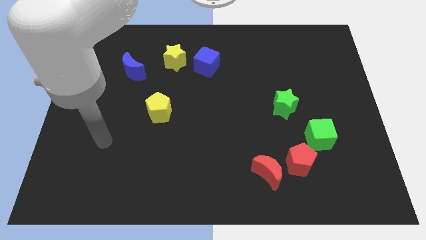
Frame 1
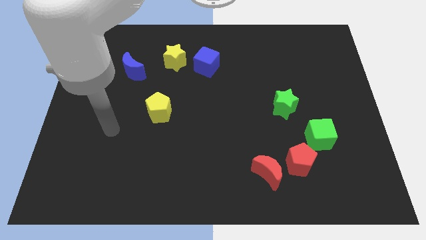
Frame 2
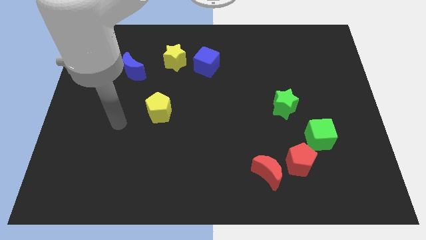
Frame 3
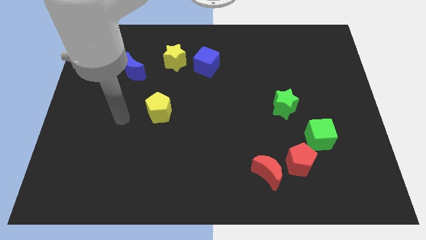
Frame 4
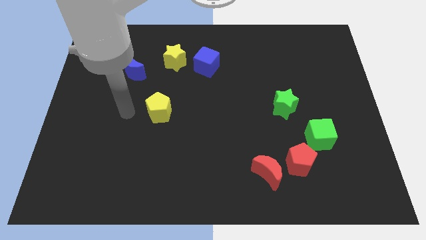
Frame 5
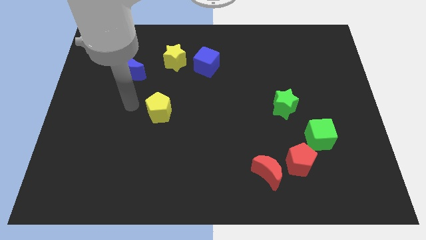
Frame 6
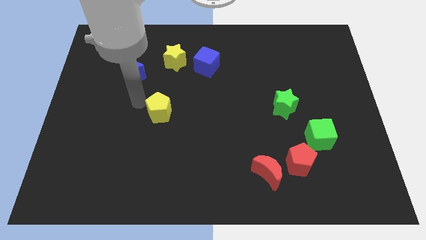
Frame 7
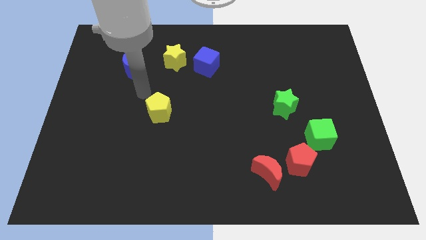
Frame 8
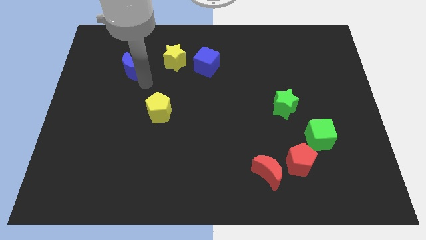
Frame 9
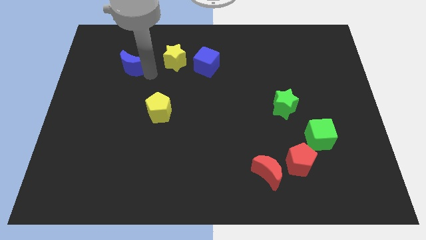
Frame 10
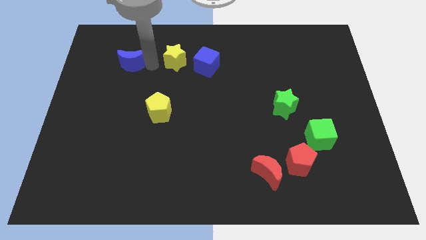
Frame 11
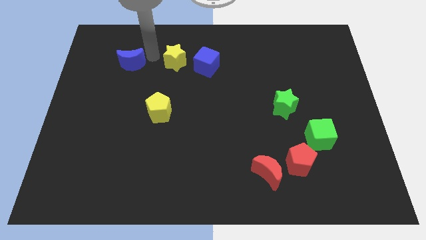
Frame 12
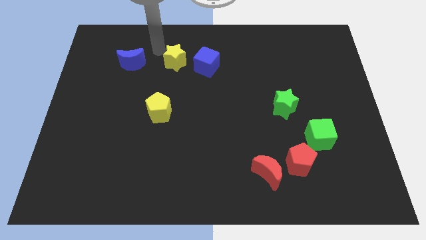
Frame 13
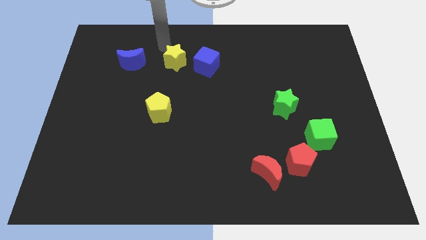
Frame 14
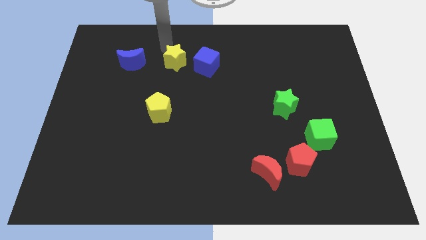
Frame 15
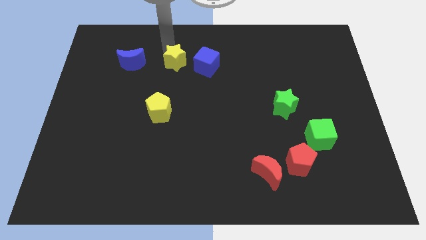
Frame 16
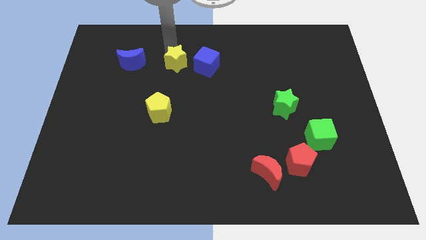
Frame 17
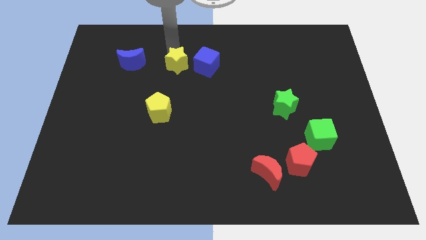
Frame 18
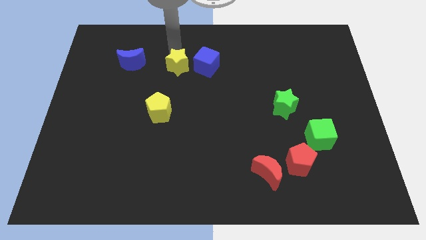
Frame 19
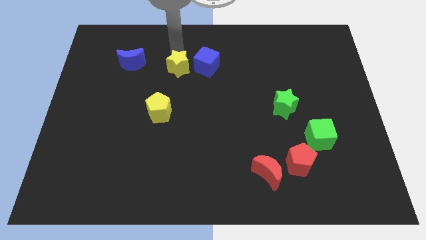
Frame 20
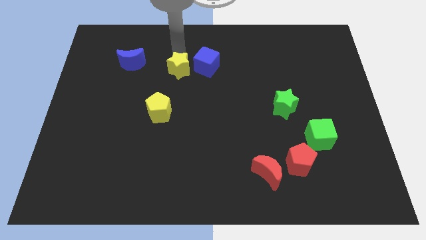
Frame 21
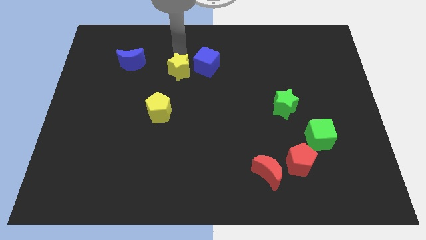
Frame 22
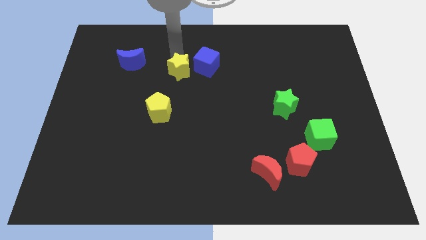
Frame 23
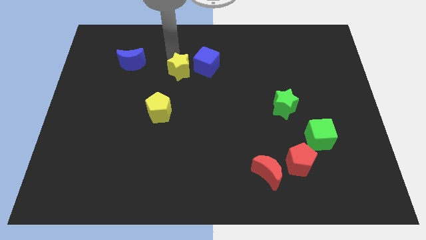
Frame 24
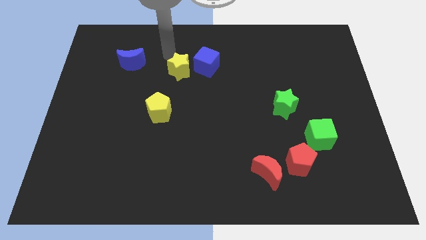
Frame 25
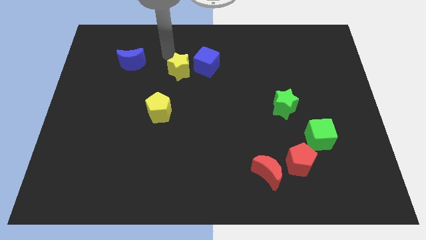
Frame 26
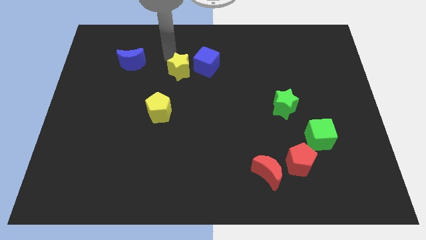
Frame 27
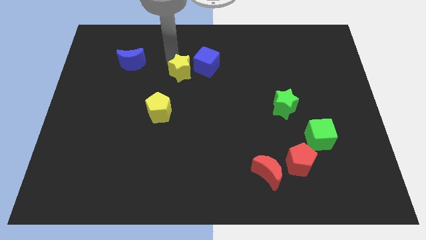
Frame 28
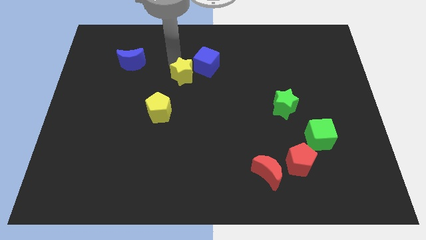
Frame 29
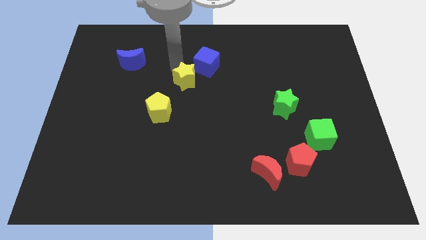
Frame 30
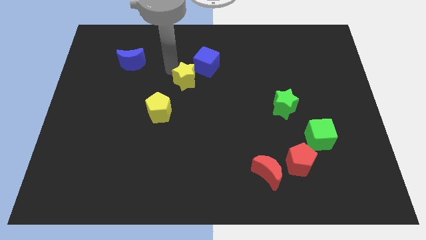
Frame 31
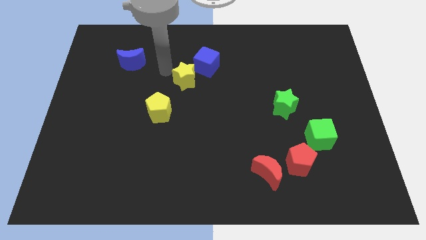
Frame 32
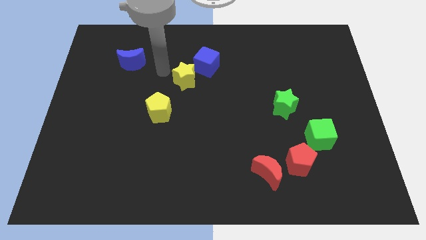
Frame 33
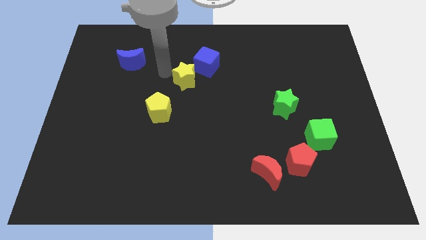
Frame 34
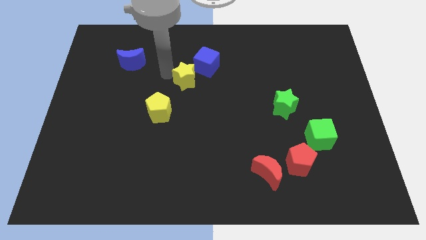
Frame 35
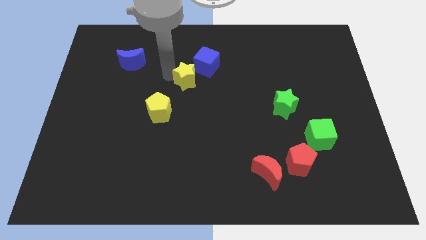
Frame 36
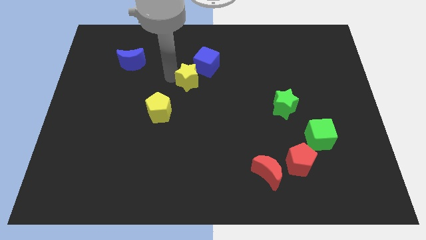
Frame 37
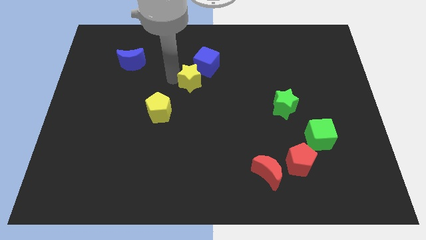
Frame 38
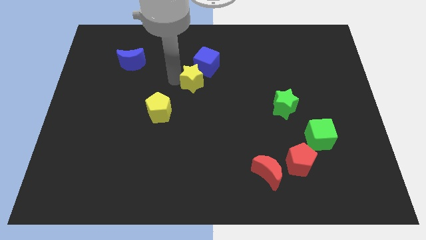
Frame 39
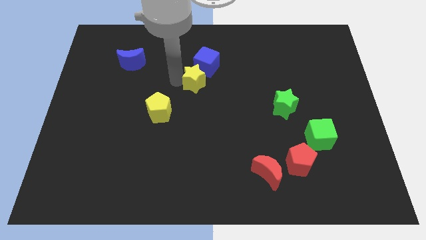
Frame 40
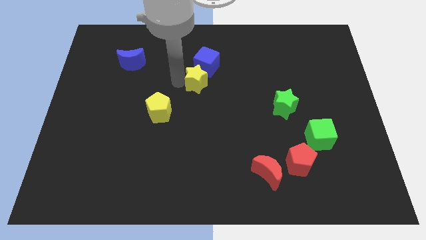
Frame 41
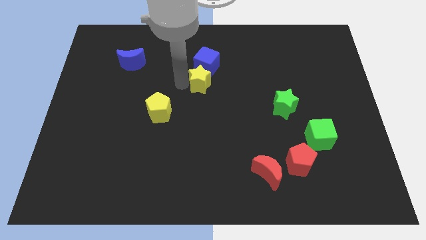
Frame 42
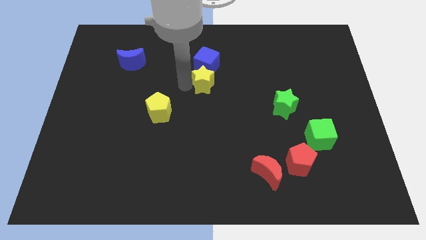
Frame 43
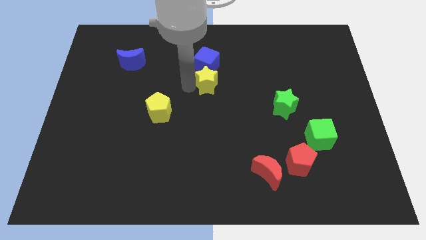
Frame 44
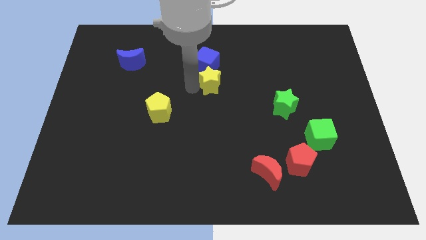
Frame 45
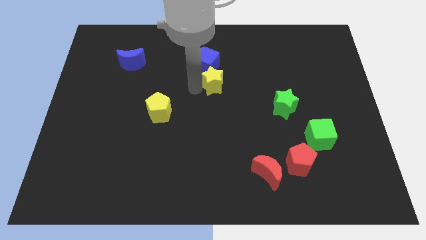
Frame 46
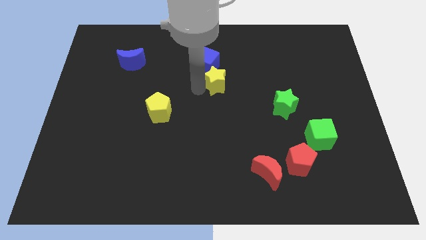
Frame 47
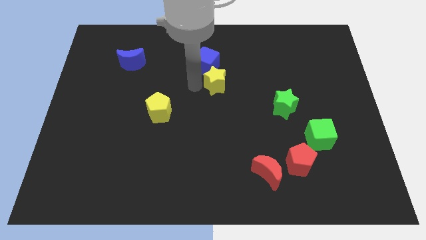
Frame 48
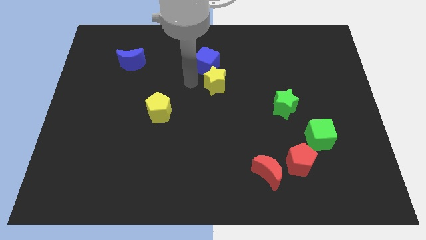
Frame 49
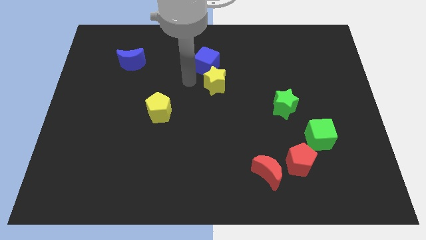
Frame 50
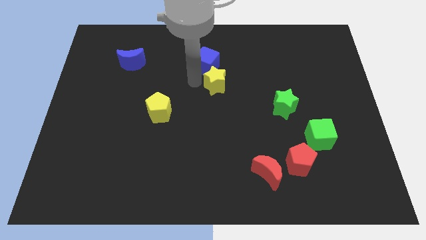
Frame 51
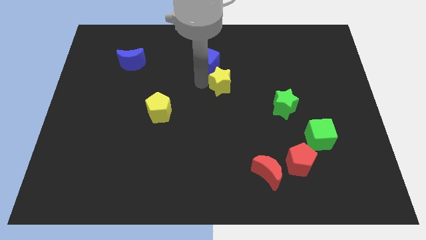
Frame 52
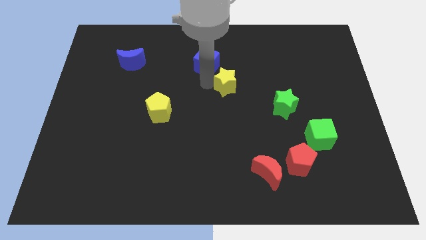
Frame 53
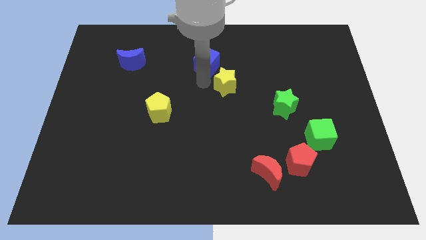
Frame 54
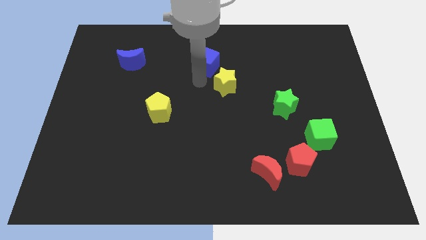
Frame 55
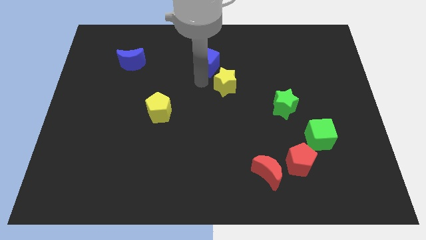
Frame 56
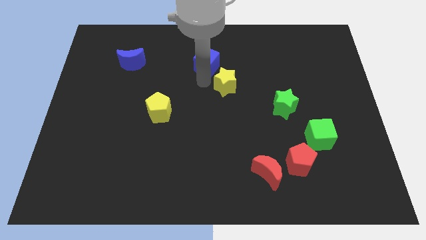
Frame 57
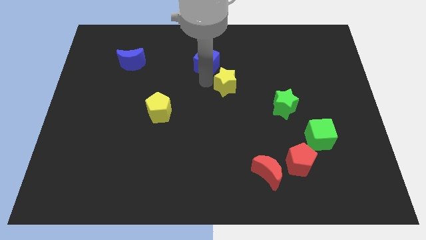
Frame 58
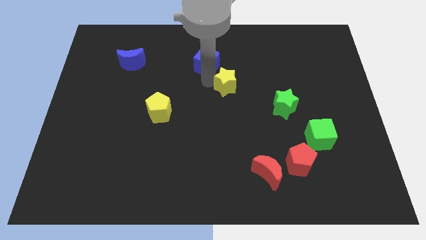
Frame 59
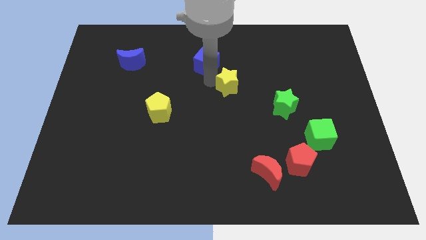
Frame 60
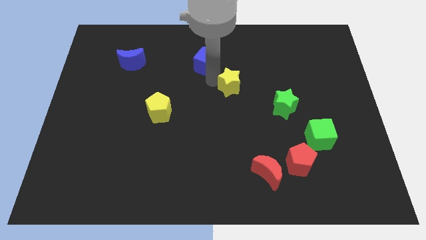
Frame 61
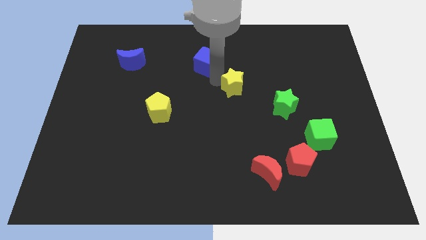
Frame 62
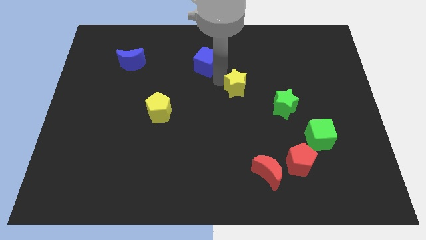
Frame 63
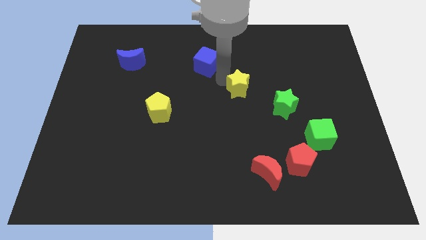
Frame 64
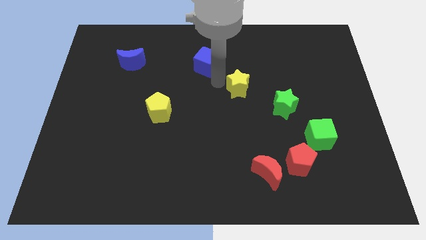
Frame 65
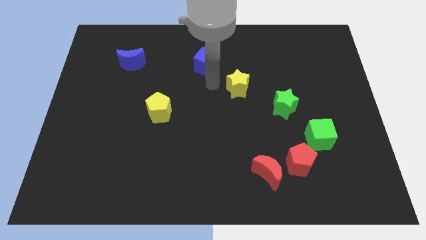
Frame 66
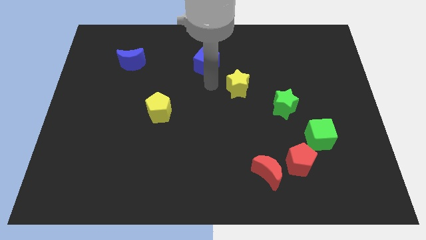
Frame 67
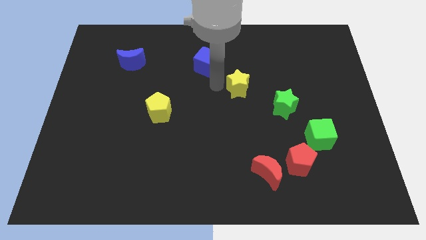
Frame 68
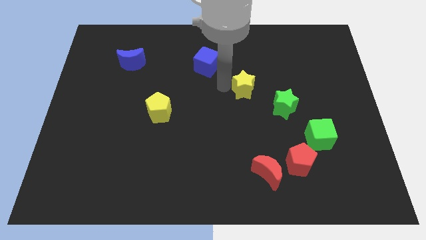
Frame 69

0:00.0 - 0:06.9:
slide the yellow star diagonally up and to the left of the green star
